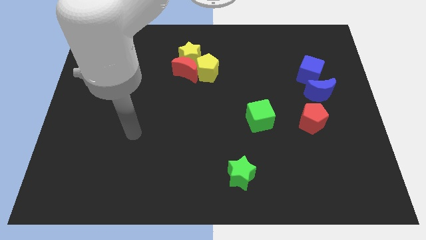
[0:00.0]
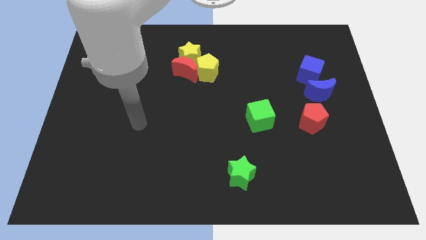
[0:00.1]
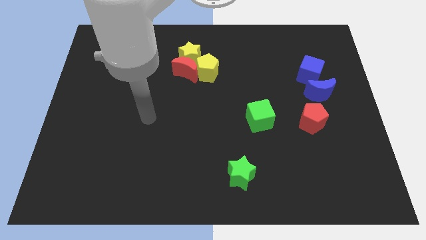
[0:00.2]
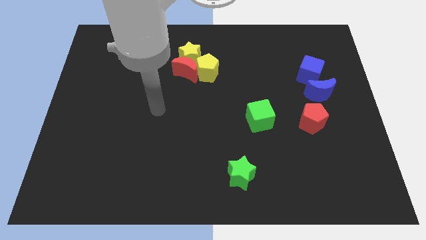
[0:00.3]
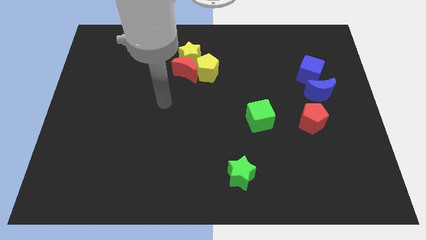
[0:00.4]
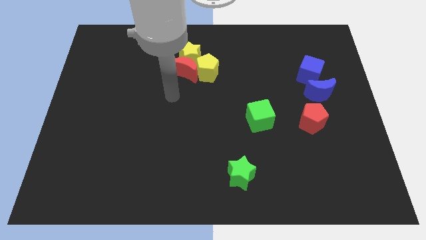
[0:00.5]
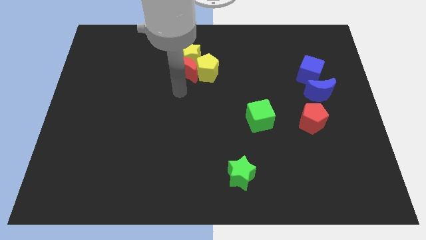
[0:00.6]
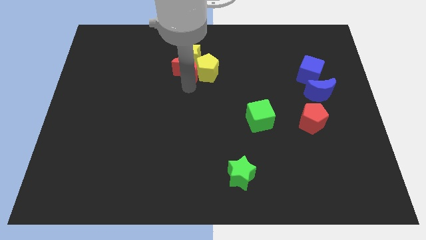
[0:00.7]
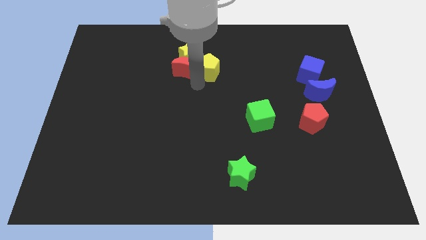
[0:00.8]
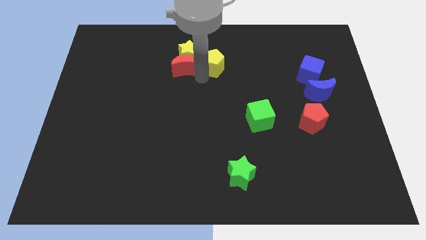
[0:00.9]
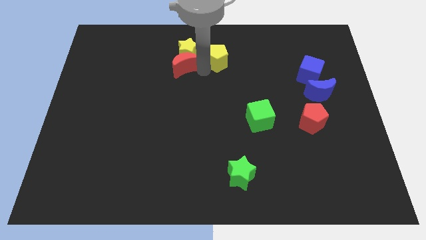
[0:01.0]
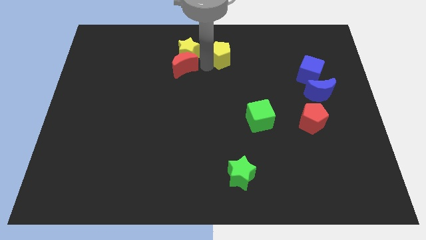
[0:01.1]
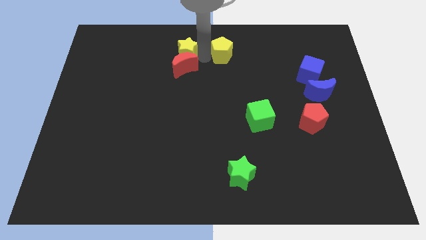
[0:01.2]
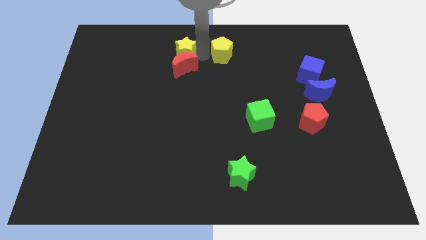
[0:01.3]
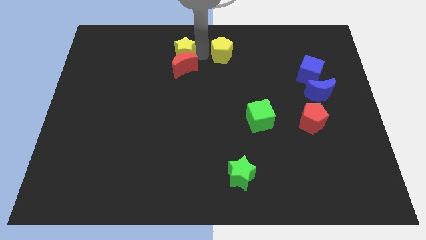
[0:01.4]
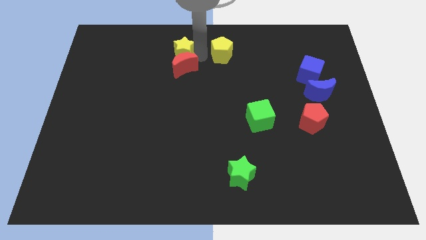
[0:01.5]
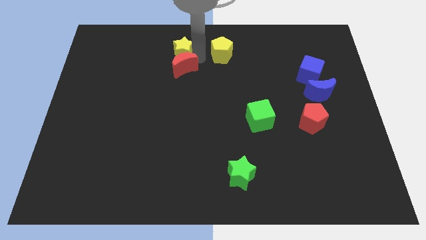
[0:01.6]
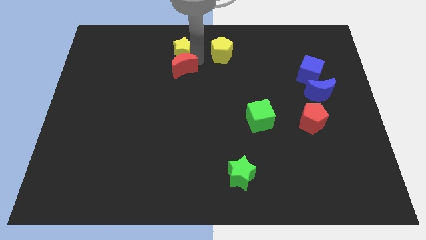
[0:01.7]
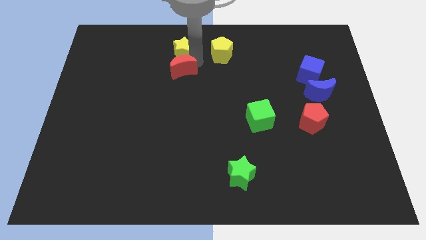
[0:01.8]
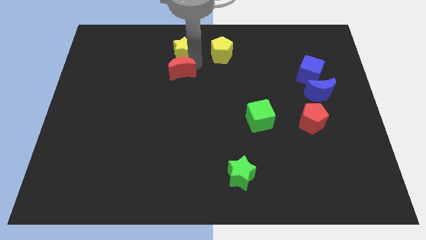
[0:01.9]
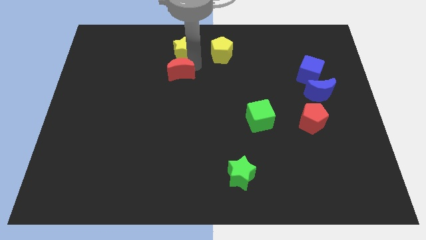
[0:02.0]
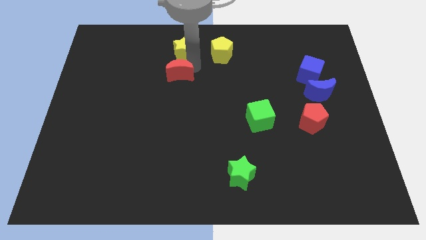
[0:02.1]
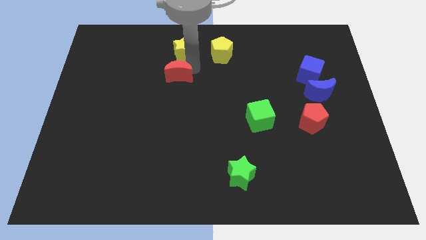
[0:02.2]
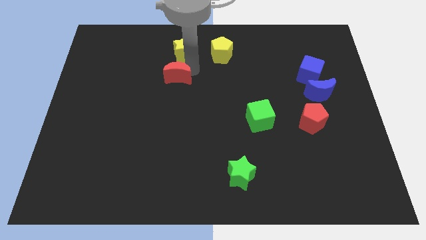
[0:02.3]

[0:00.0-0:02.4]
move the red moon away from the yellow star and yellow pentagon

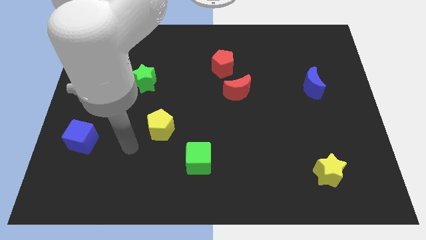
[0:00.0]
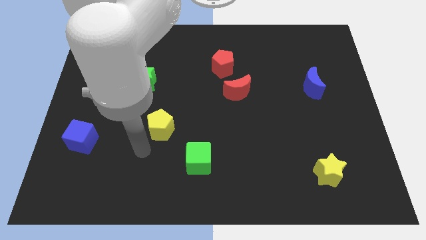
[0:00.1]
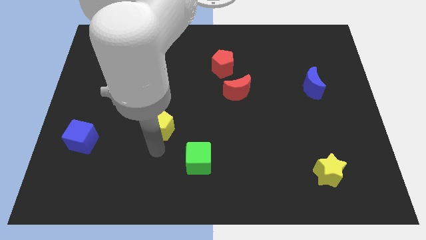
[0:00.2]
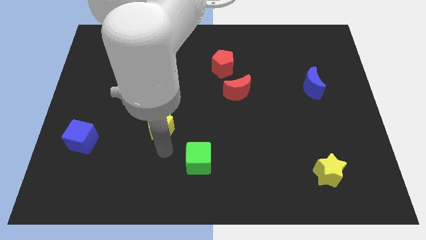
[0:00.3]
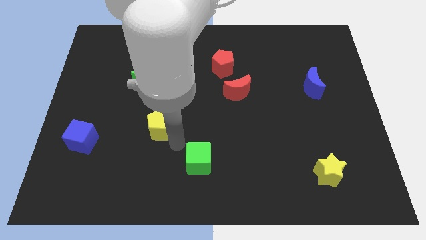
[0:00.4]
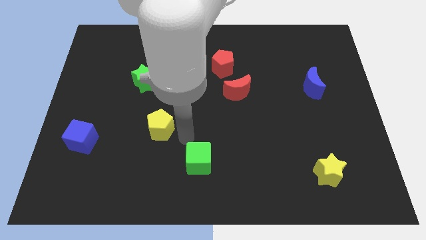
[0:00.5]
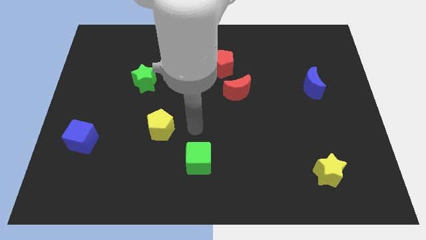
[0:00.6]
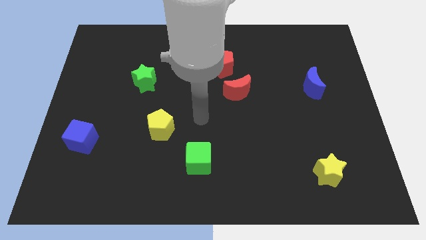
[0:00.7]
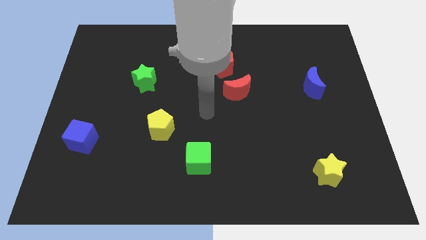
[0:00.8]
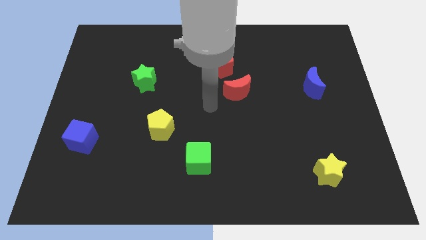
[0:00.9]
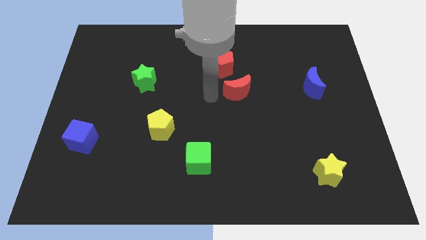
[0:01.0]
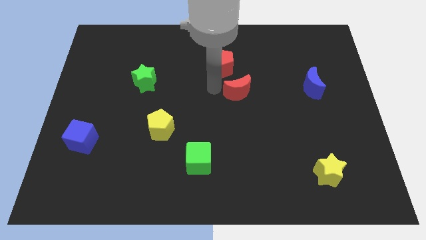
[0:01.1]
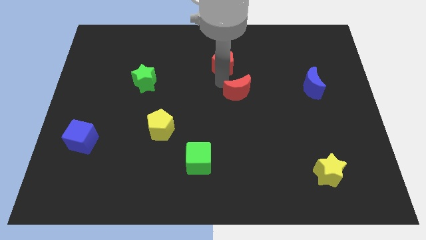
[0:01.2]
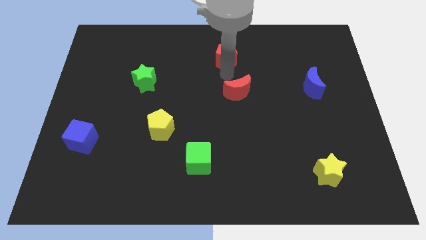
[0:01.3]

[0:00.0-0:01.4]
separate the red moon from the red pentagon

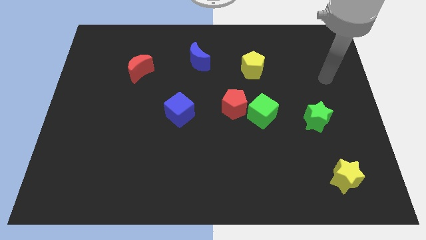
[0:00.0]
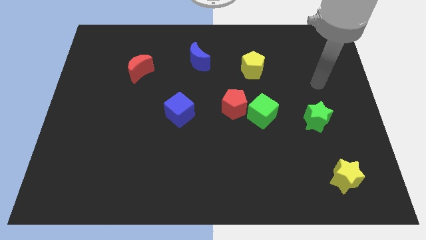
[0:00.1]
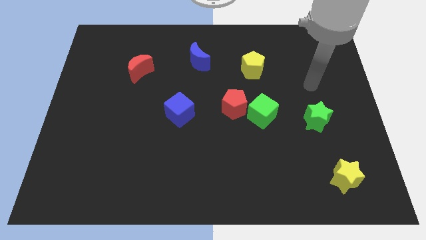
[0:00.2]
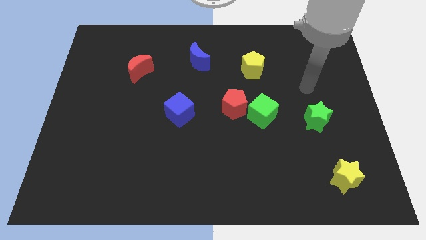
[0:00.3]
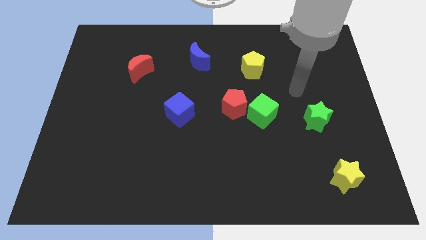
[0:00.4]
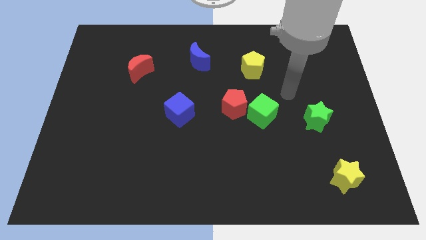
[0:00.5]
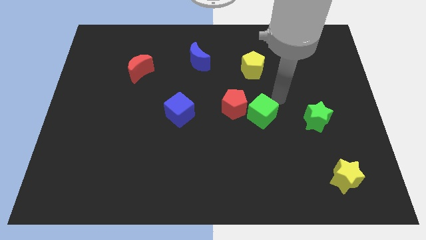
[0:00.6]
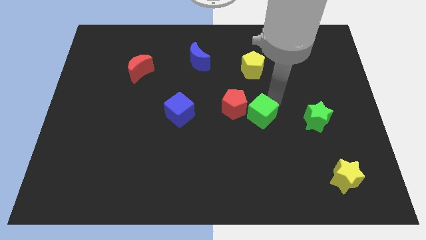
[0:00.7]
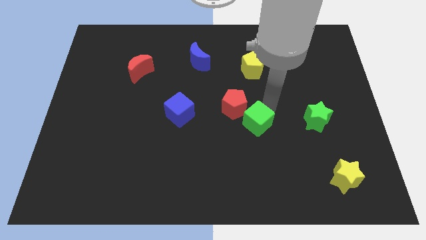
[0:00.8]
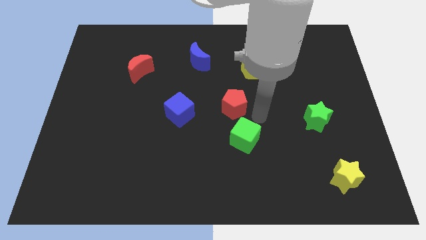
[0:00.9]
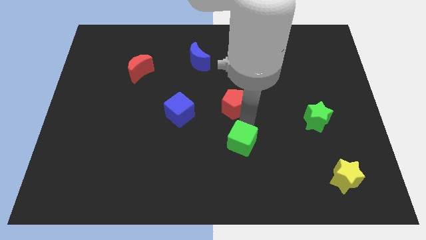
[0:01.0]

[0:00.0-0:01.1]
pull the red pentagon apart from the green cube

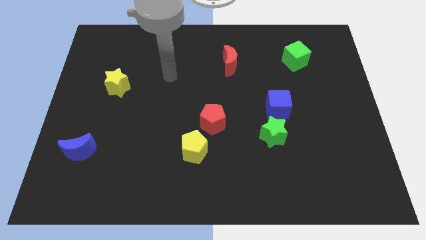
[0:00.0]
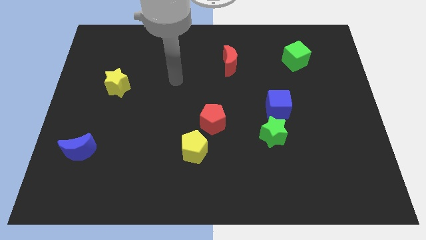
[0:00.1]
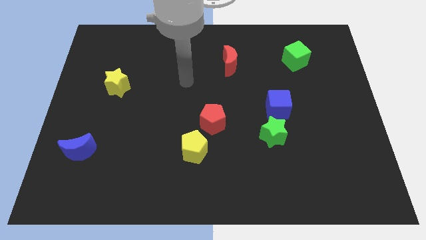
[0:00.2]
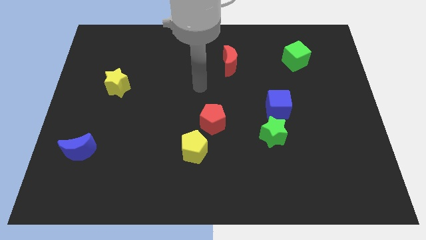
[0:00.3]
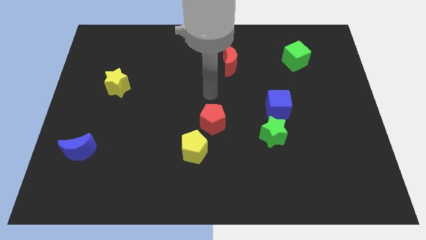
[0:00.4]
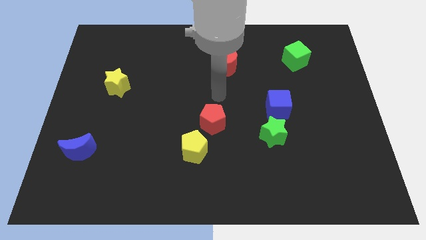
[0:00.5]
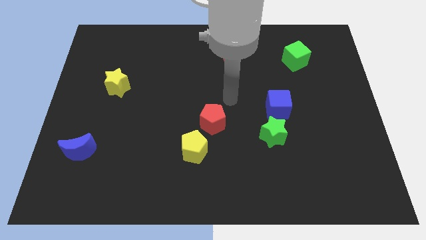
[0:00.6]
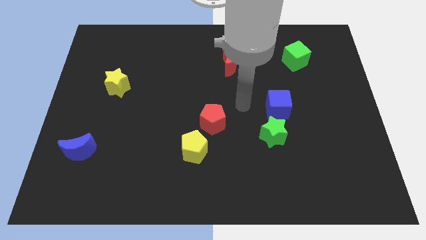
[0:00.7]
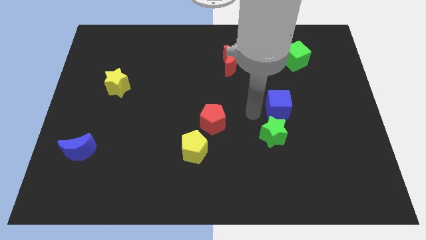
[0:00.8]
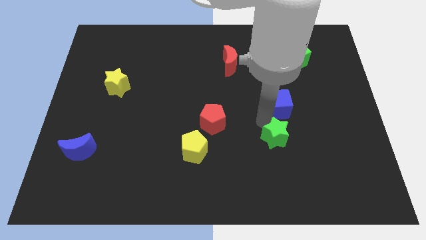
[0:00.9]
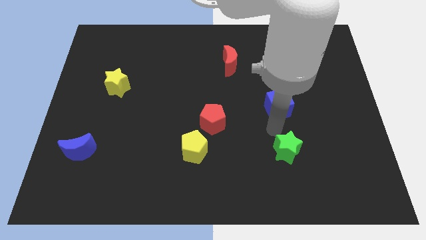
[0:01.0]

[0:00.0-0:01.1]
move the blue cube away from the green star

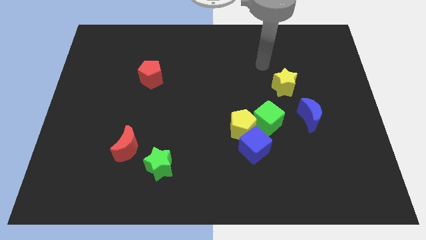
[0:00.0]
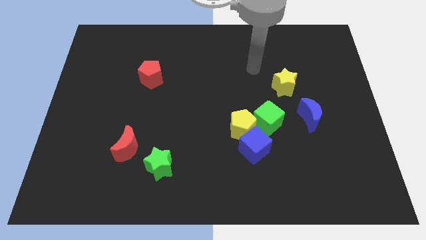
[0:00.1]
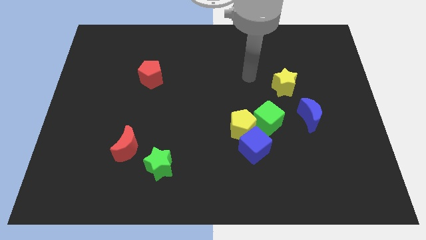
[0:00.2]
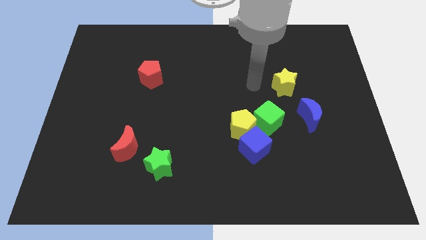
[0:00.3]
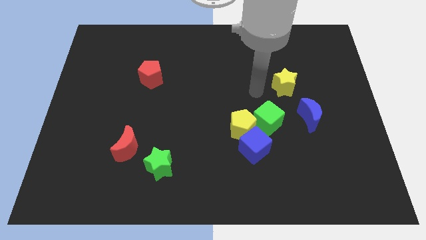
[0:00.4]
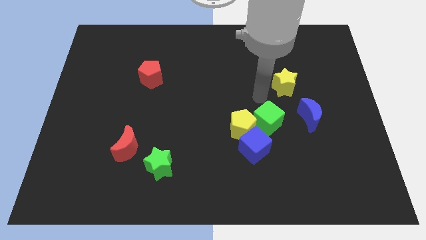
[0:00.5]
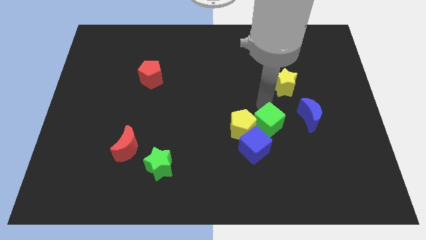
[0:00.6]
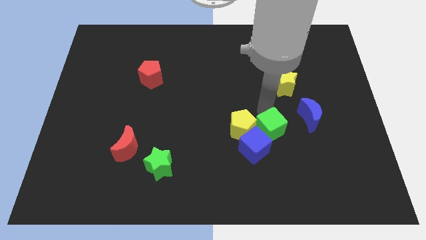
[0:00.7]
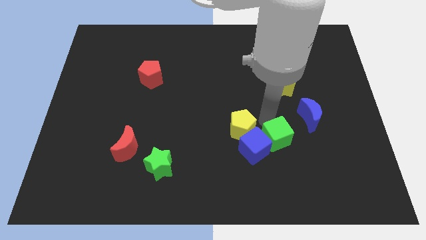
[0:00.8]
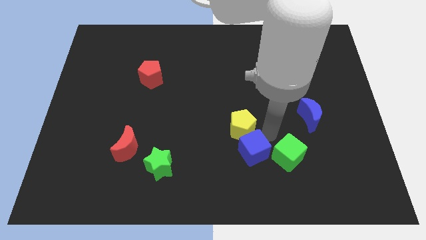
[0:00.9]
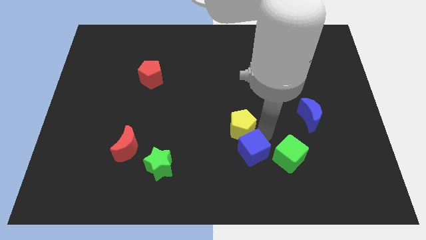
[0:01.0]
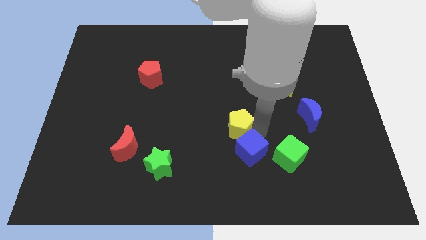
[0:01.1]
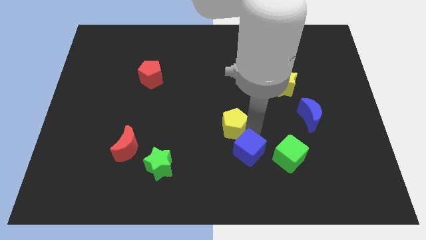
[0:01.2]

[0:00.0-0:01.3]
pull the yellow pentagon apart from the blue cube and green cube

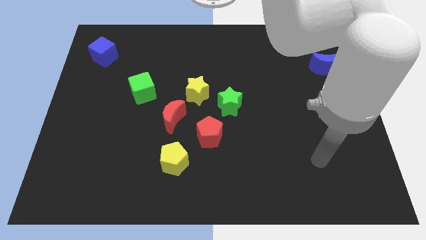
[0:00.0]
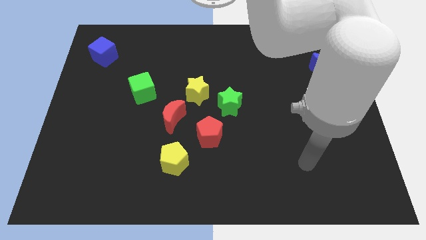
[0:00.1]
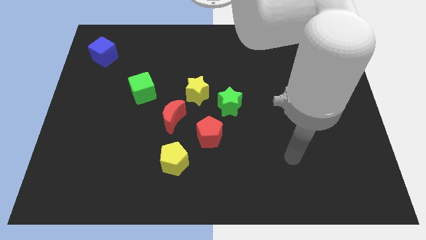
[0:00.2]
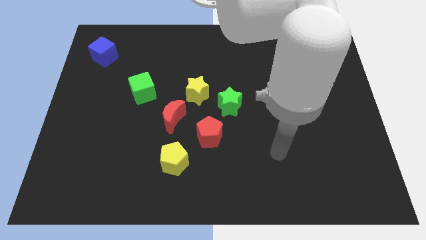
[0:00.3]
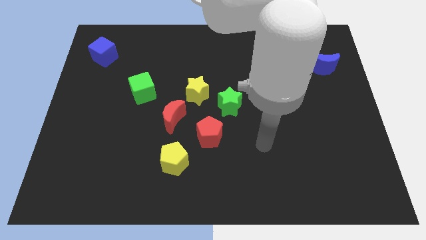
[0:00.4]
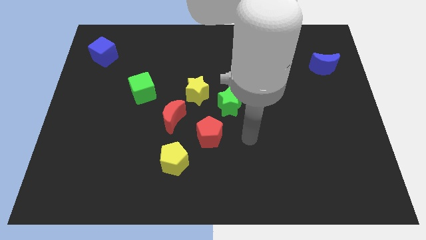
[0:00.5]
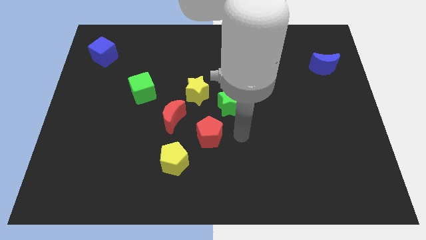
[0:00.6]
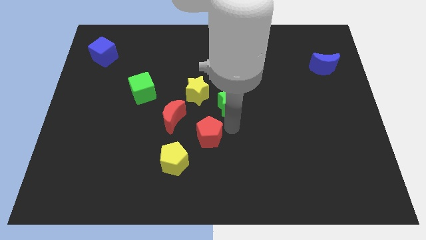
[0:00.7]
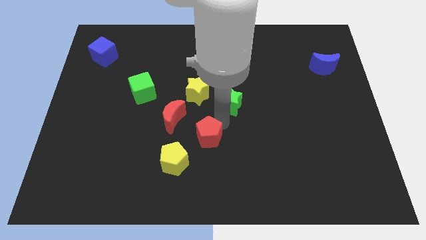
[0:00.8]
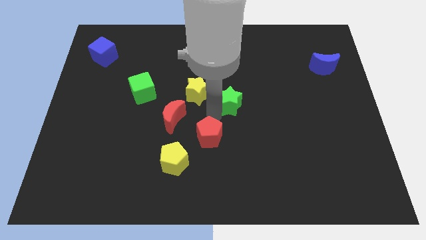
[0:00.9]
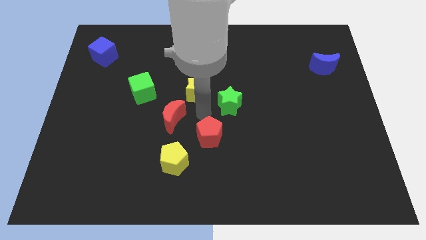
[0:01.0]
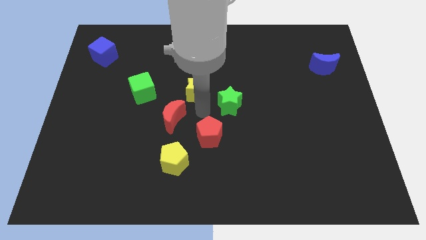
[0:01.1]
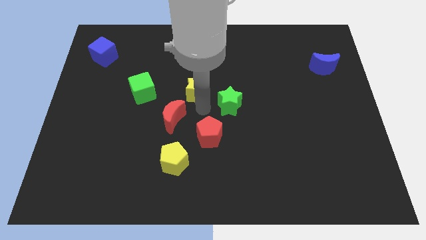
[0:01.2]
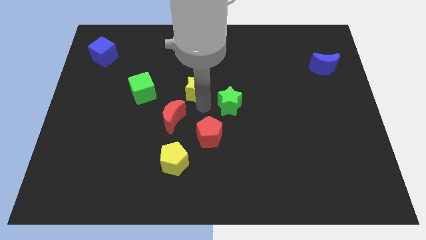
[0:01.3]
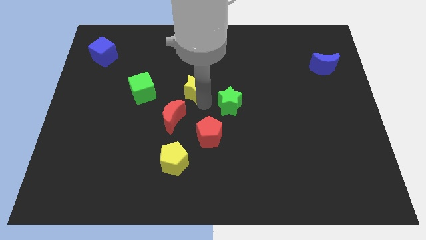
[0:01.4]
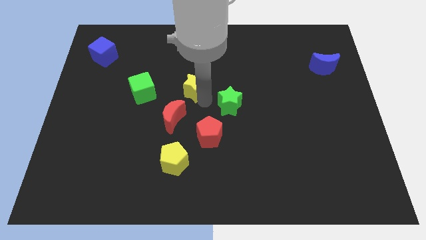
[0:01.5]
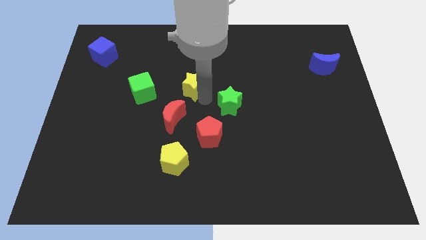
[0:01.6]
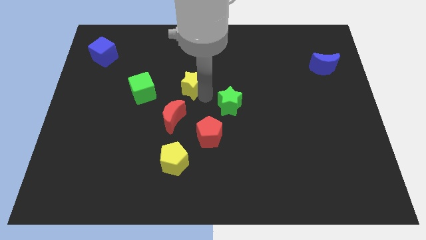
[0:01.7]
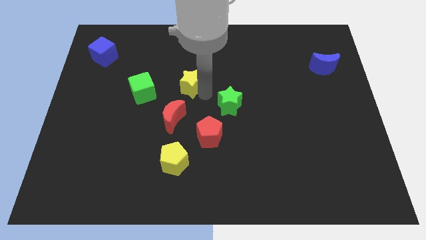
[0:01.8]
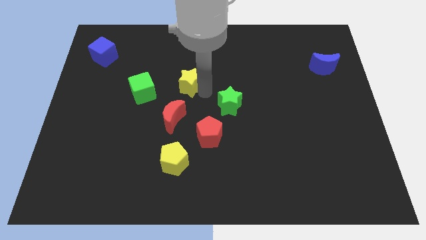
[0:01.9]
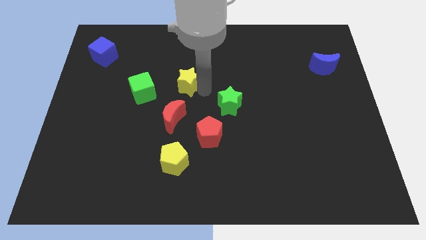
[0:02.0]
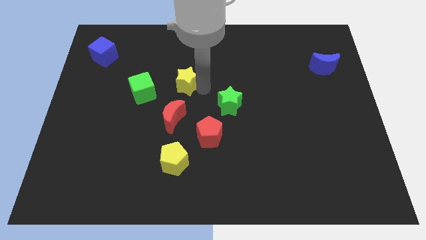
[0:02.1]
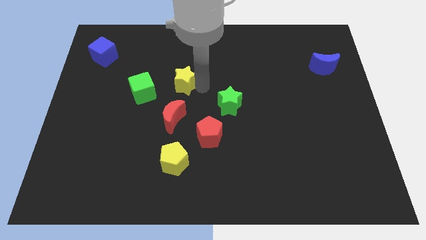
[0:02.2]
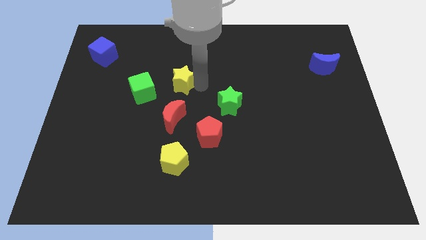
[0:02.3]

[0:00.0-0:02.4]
move the yellow star away from the green star and red moon
